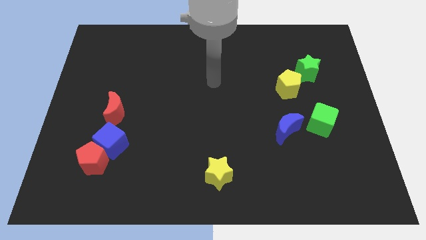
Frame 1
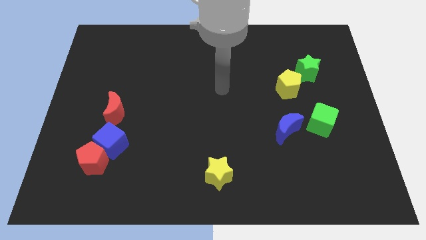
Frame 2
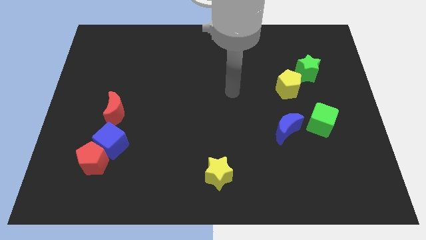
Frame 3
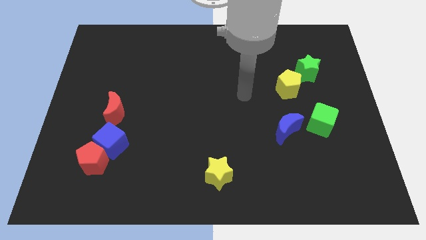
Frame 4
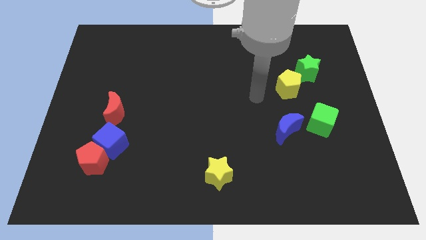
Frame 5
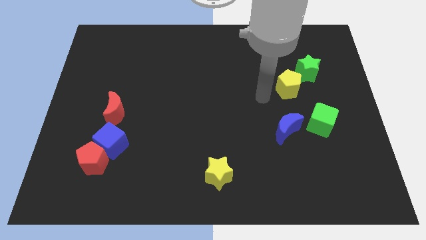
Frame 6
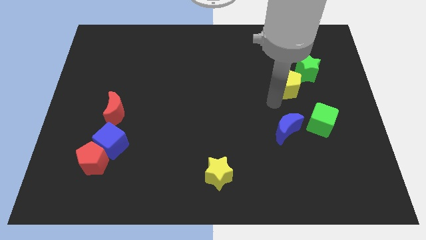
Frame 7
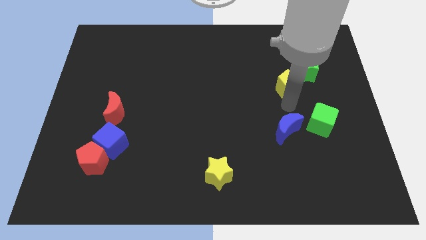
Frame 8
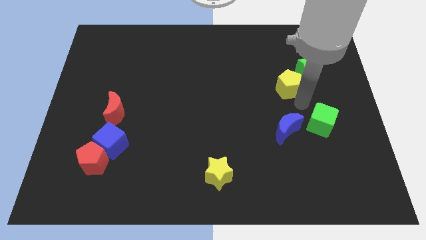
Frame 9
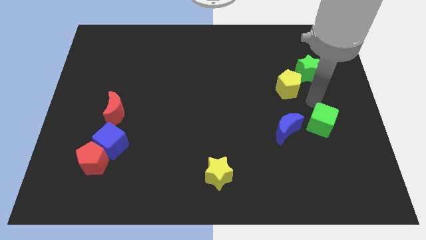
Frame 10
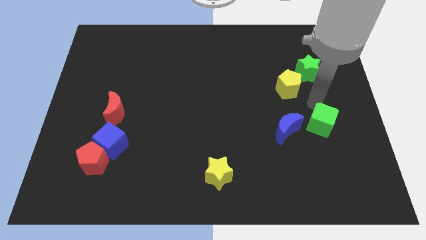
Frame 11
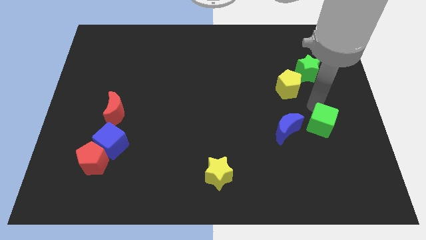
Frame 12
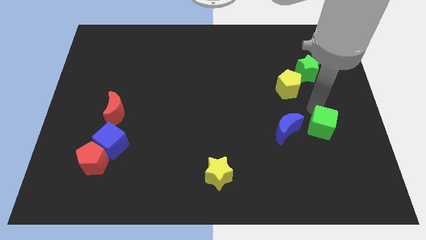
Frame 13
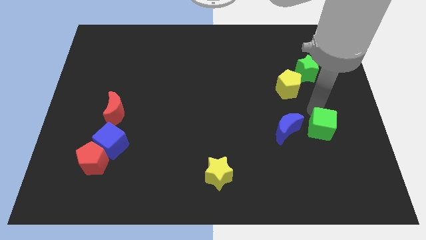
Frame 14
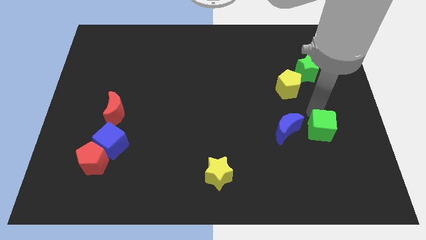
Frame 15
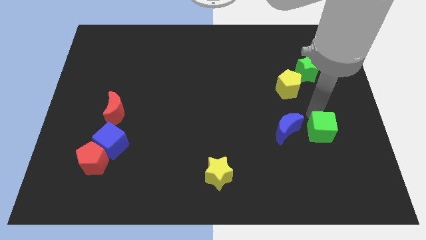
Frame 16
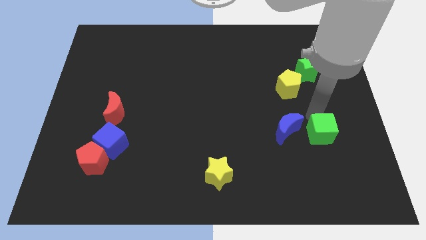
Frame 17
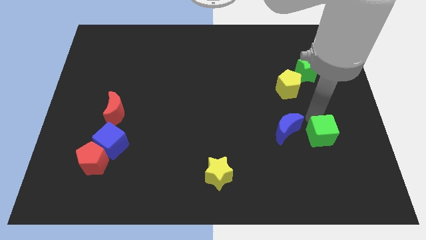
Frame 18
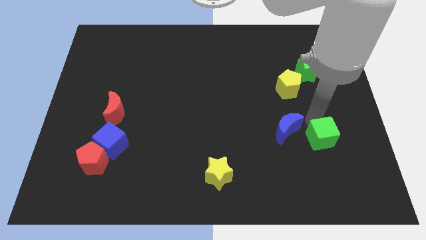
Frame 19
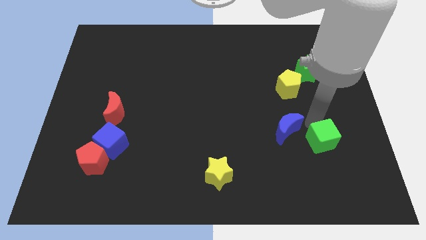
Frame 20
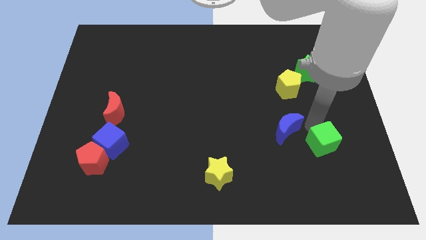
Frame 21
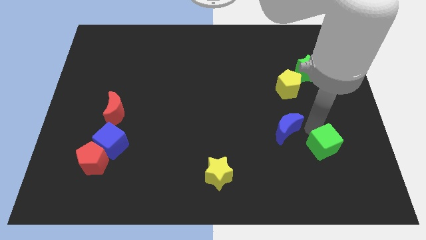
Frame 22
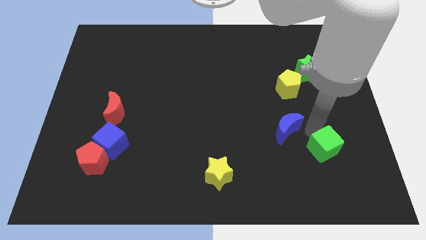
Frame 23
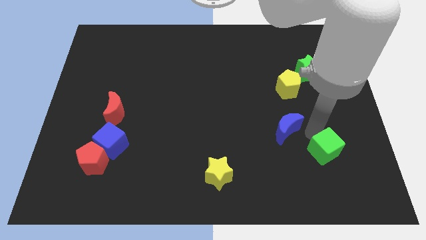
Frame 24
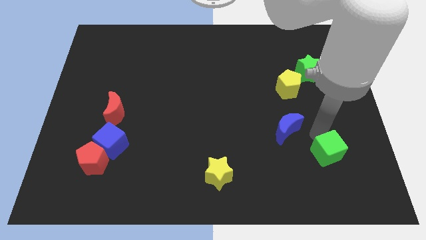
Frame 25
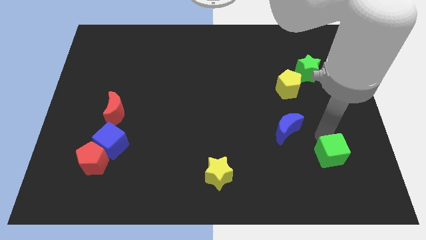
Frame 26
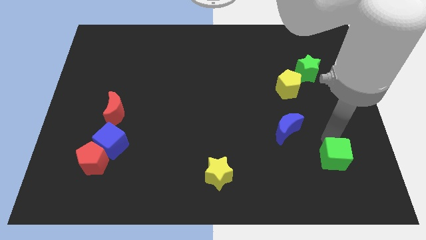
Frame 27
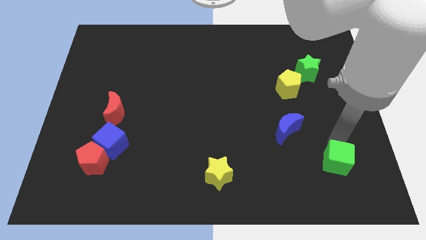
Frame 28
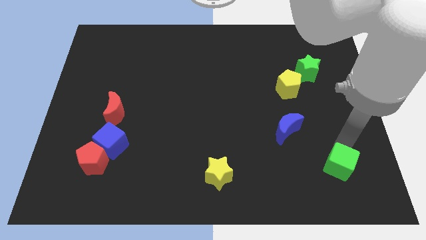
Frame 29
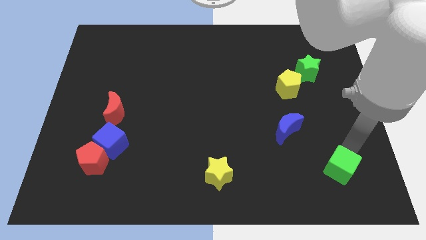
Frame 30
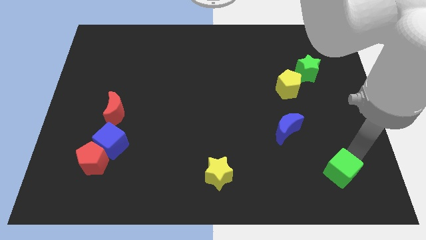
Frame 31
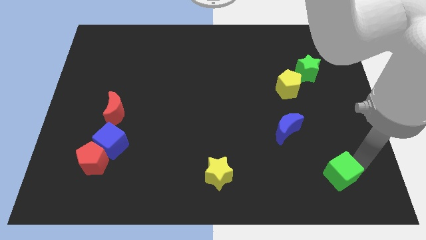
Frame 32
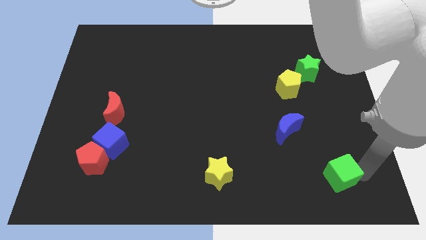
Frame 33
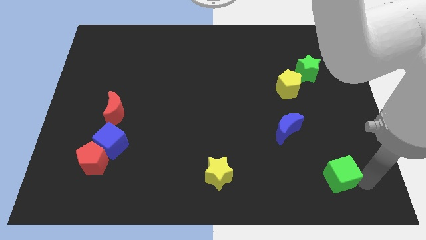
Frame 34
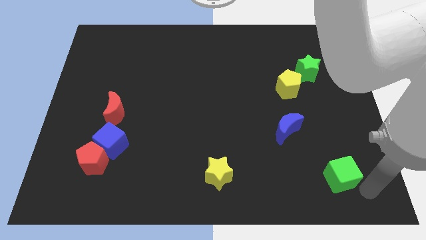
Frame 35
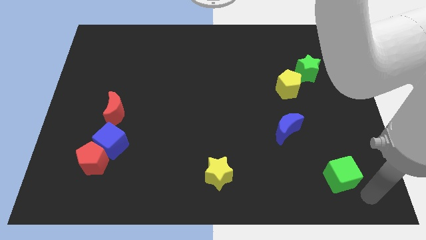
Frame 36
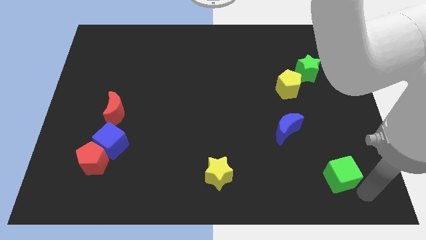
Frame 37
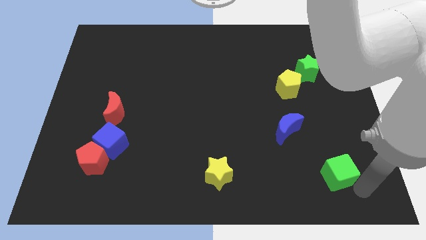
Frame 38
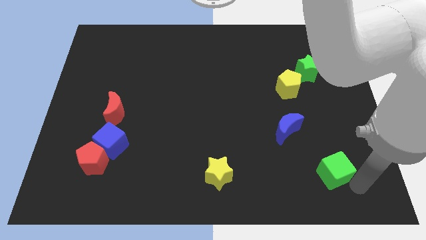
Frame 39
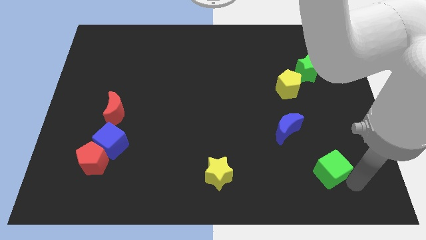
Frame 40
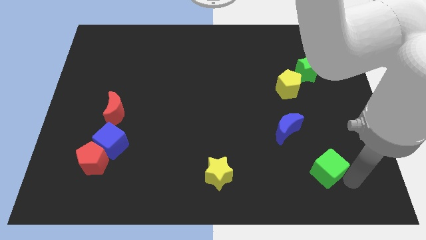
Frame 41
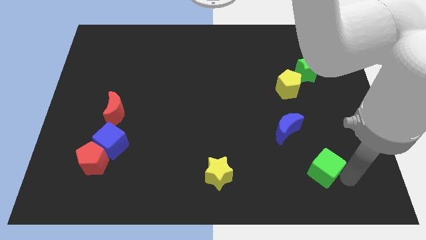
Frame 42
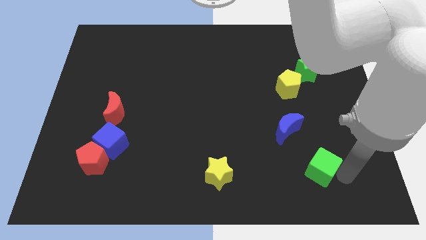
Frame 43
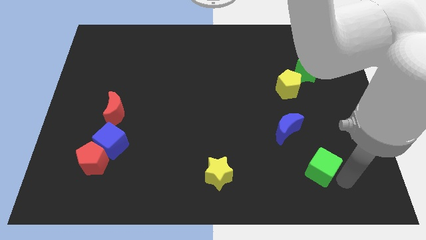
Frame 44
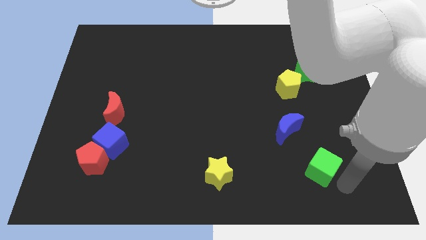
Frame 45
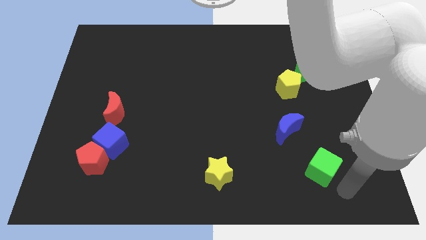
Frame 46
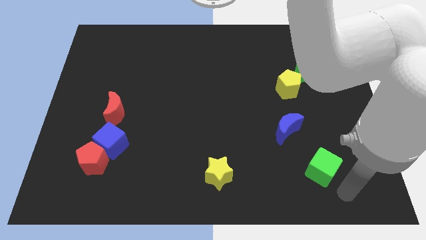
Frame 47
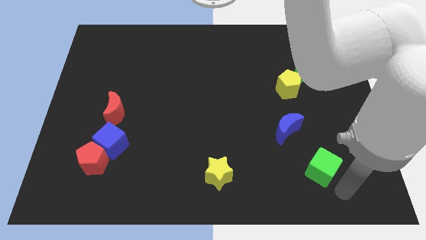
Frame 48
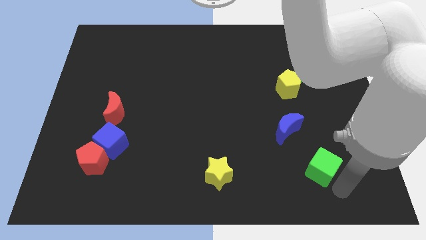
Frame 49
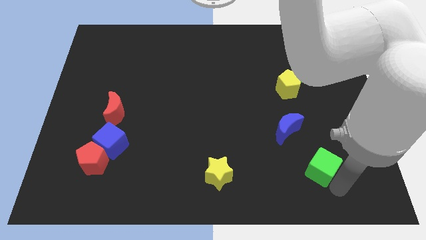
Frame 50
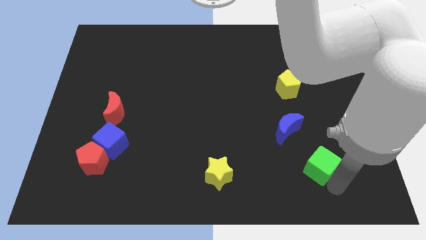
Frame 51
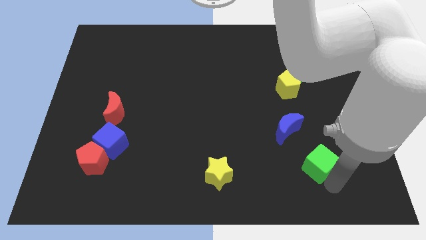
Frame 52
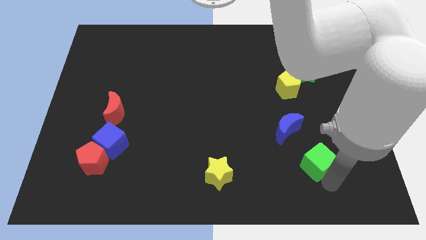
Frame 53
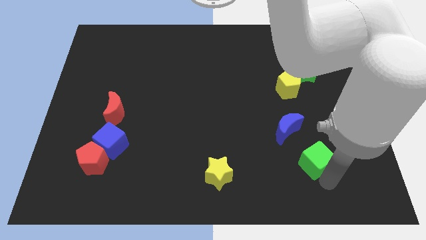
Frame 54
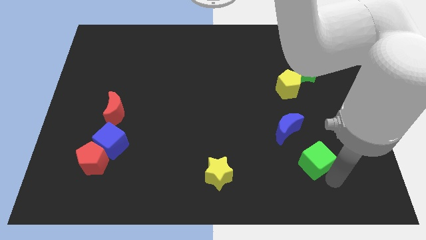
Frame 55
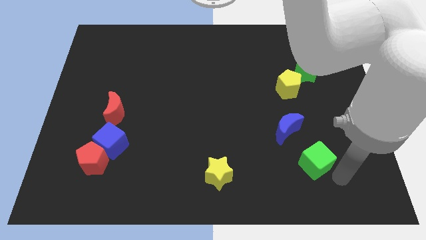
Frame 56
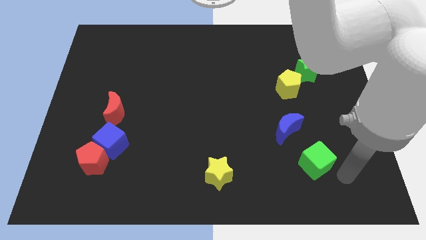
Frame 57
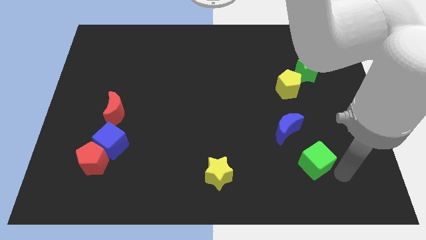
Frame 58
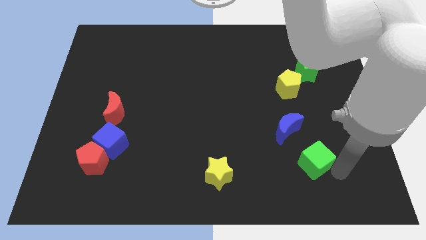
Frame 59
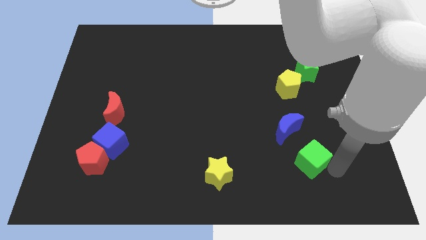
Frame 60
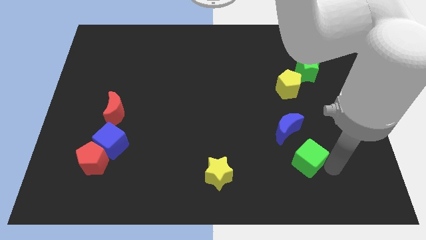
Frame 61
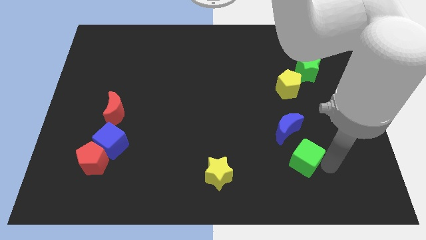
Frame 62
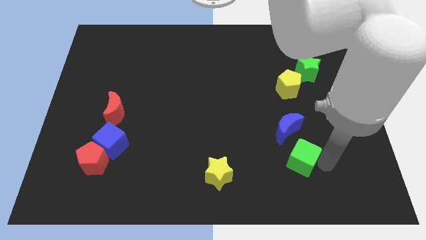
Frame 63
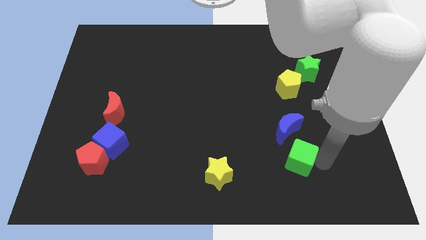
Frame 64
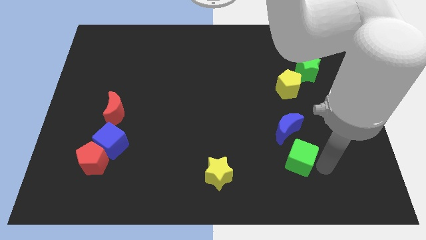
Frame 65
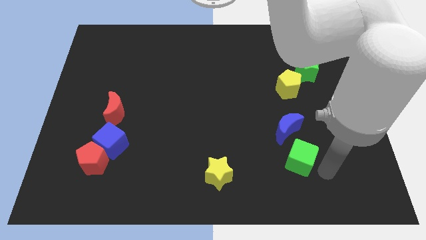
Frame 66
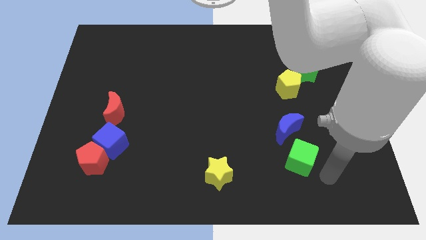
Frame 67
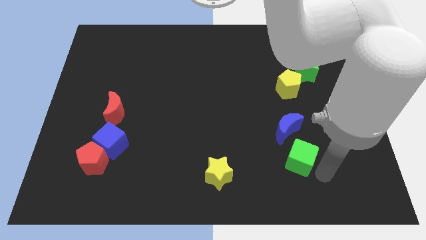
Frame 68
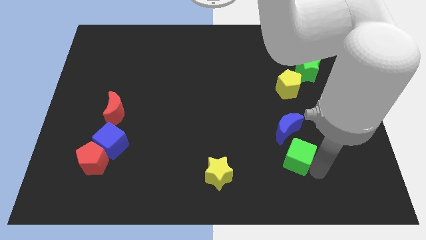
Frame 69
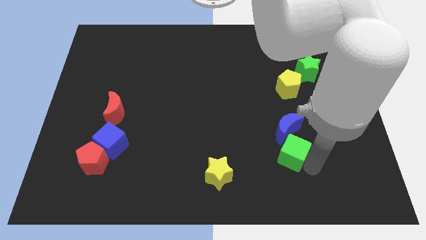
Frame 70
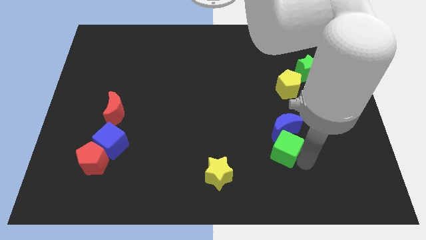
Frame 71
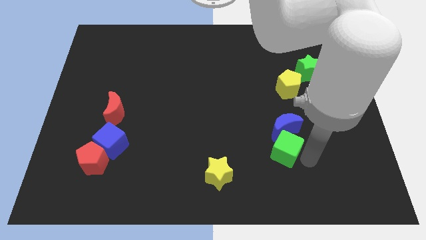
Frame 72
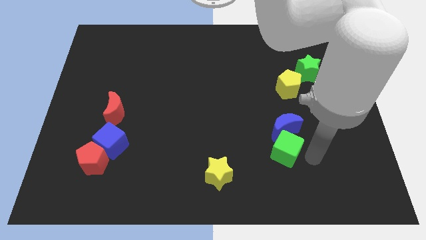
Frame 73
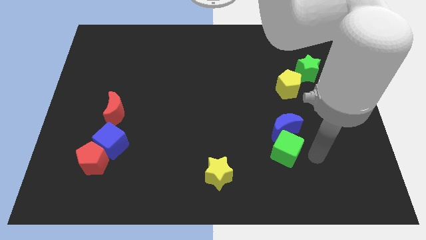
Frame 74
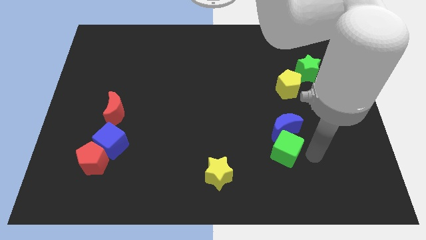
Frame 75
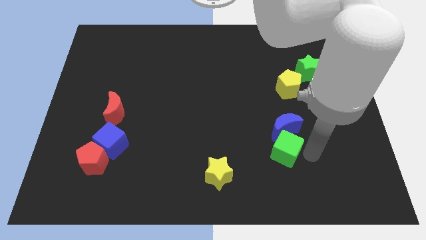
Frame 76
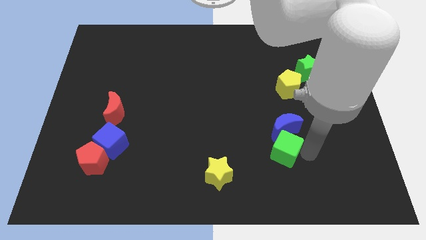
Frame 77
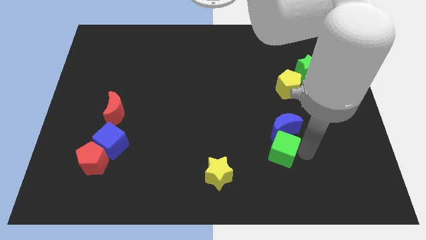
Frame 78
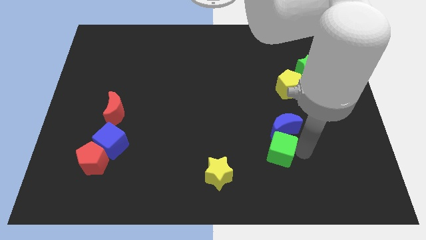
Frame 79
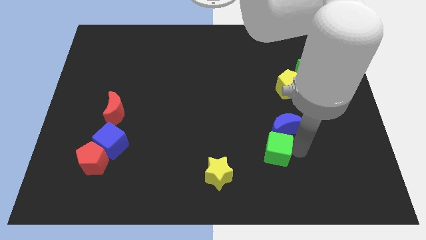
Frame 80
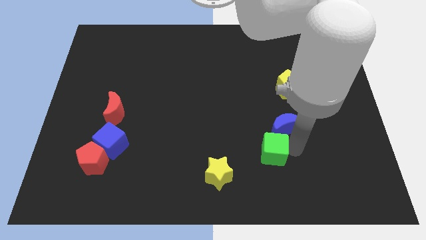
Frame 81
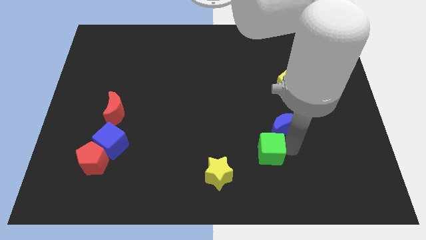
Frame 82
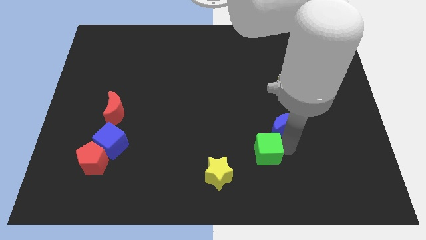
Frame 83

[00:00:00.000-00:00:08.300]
slide the green cube diagonally up and to the right of the yellow star
